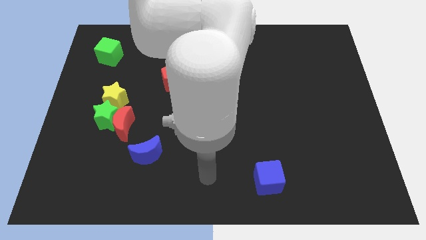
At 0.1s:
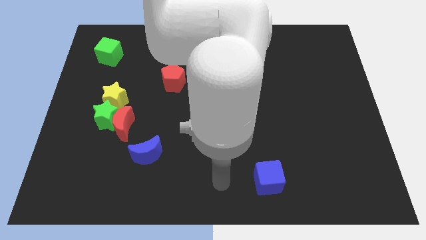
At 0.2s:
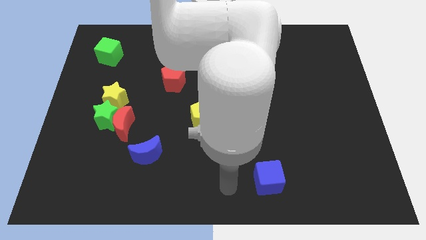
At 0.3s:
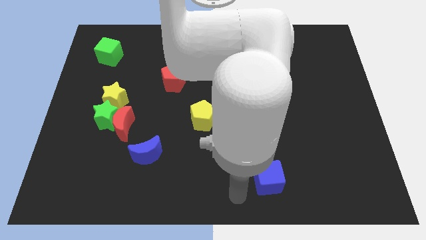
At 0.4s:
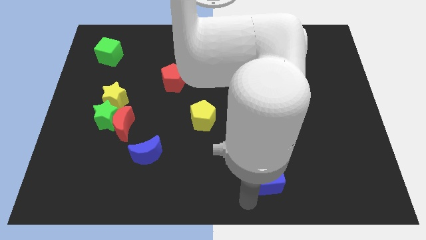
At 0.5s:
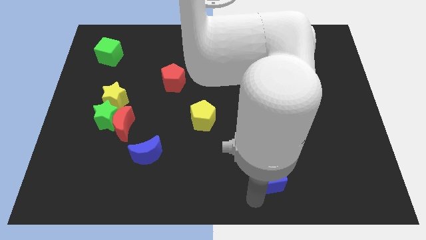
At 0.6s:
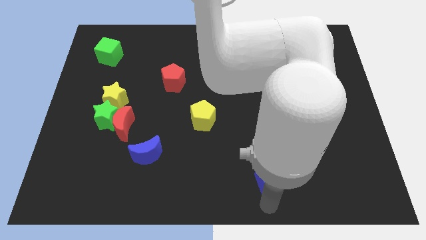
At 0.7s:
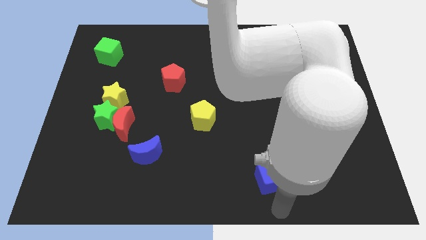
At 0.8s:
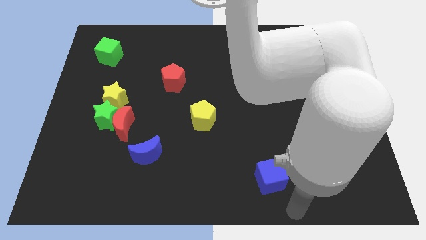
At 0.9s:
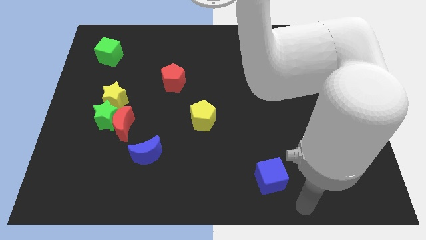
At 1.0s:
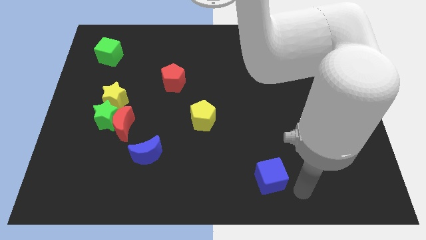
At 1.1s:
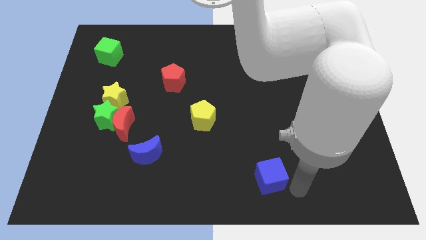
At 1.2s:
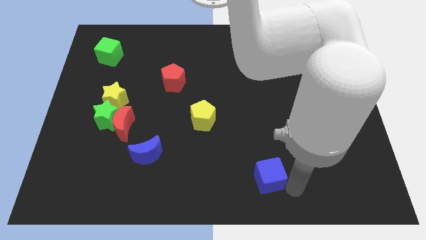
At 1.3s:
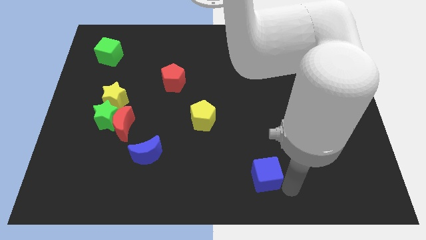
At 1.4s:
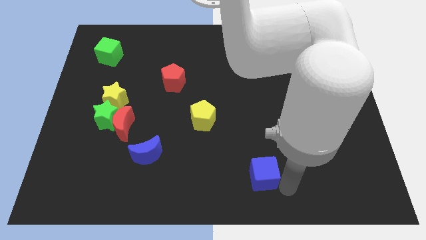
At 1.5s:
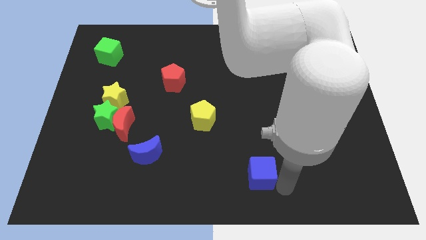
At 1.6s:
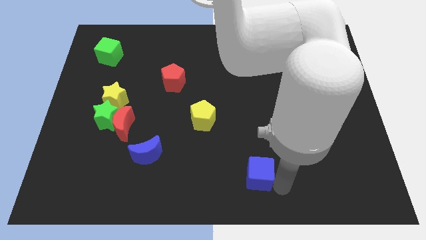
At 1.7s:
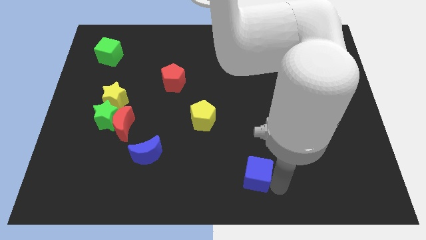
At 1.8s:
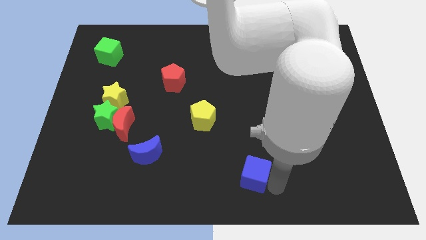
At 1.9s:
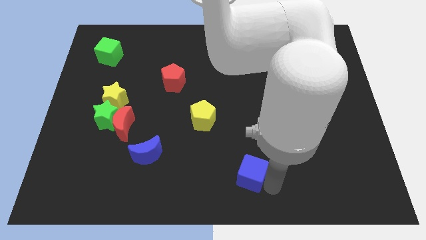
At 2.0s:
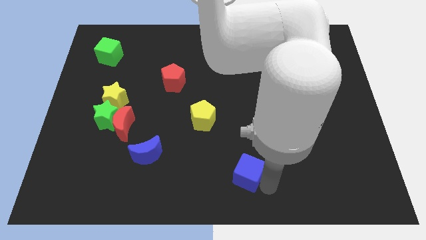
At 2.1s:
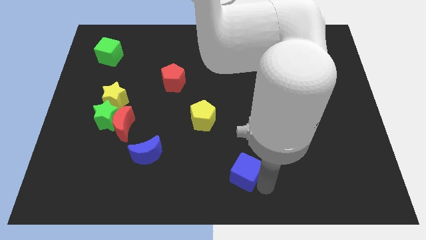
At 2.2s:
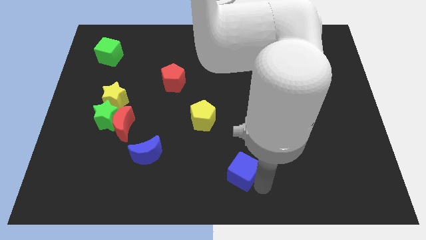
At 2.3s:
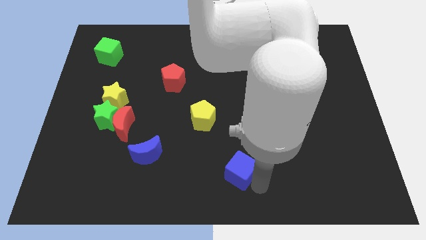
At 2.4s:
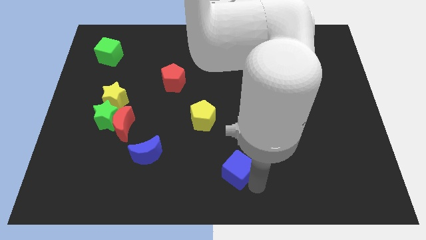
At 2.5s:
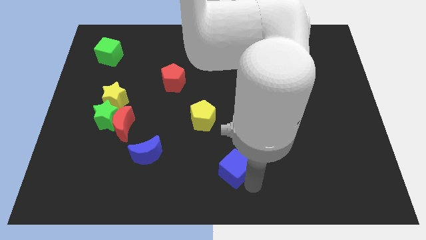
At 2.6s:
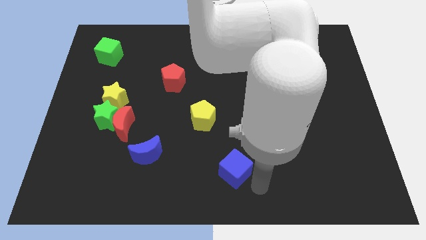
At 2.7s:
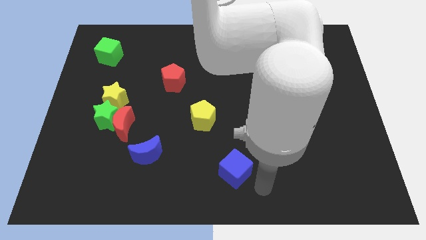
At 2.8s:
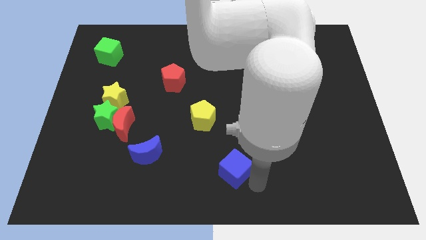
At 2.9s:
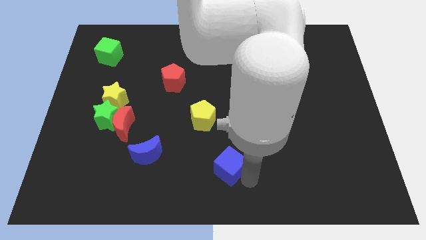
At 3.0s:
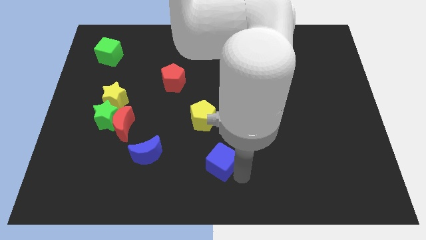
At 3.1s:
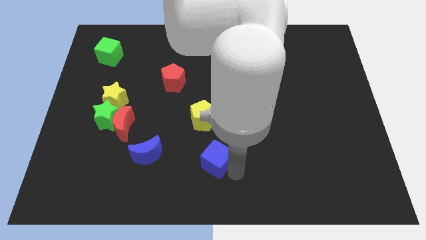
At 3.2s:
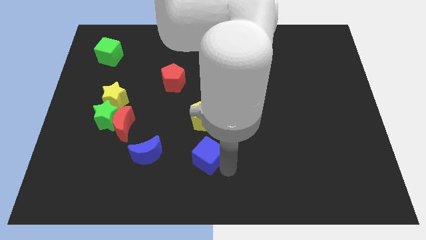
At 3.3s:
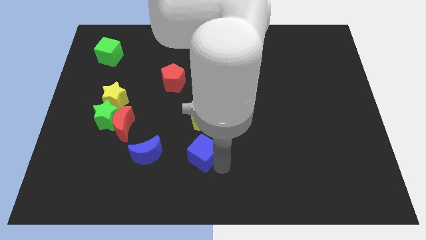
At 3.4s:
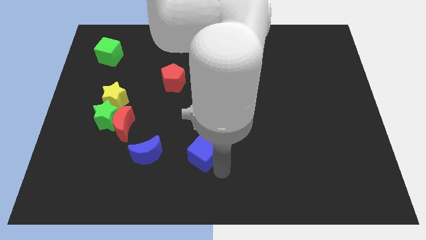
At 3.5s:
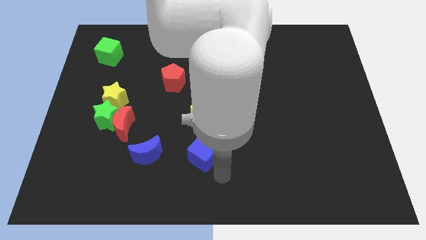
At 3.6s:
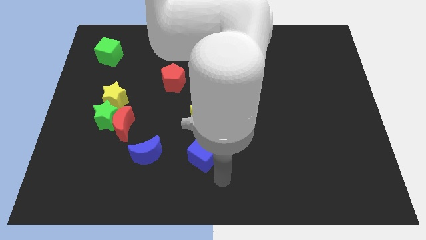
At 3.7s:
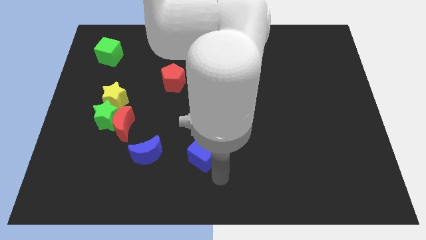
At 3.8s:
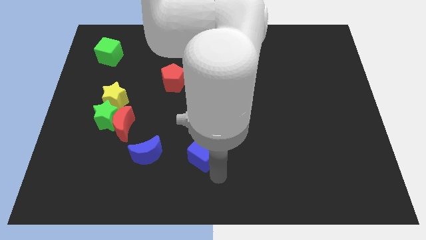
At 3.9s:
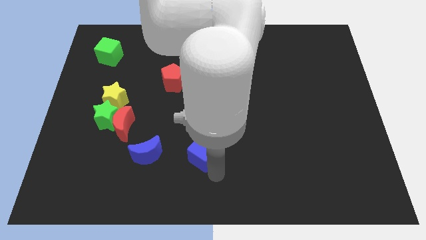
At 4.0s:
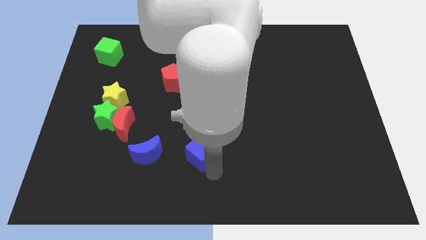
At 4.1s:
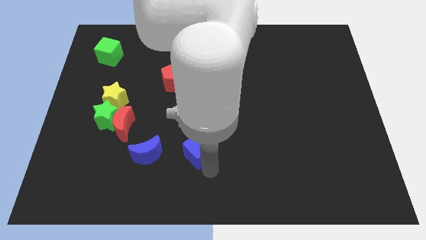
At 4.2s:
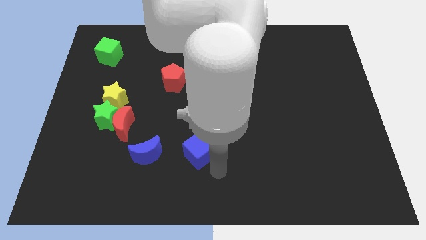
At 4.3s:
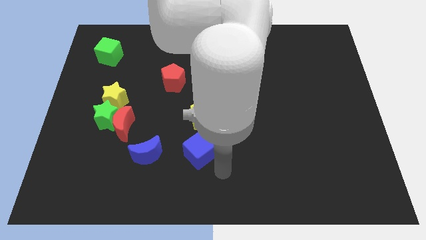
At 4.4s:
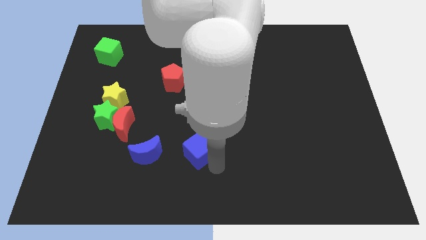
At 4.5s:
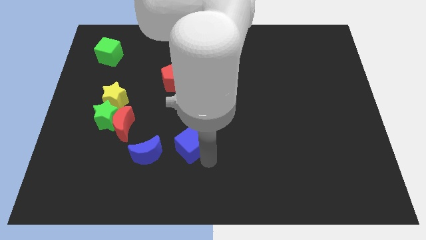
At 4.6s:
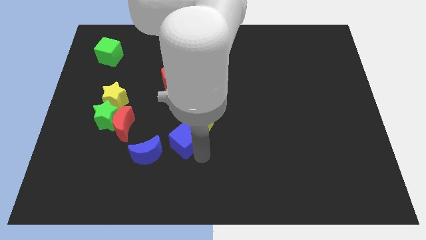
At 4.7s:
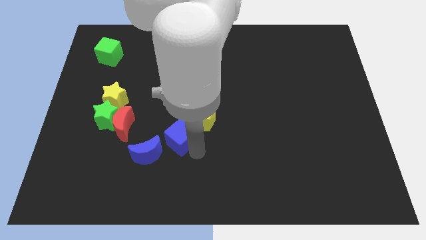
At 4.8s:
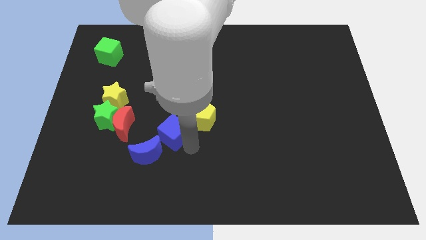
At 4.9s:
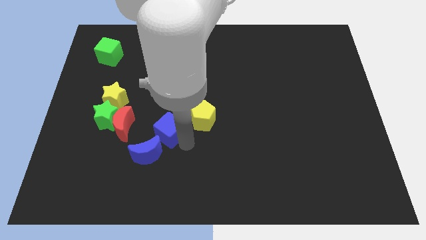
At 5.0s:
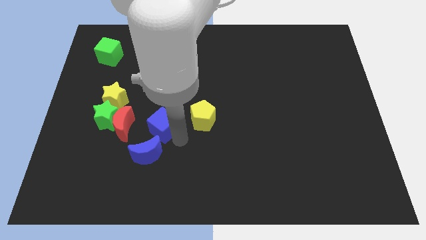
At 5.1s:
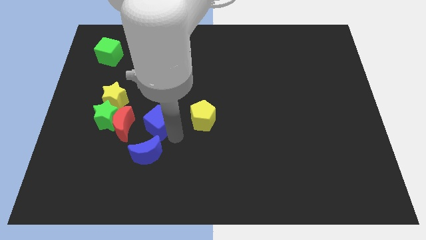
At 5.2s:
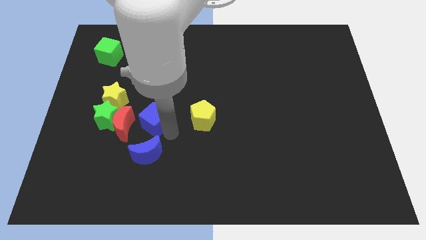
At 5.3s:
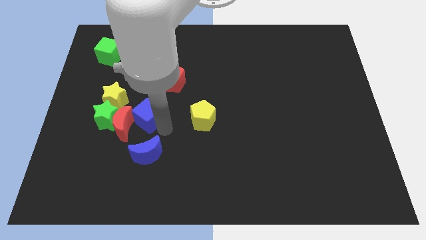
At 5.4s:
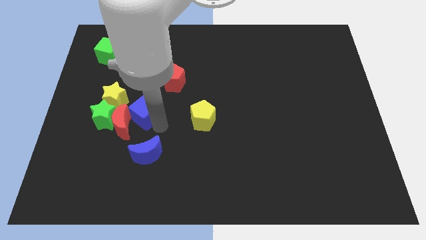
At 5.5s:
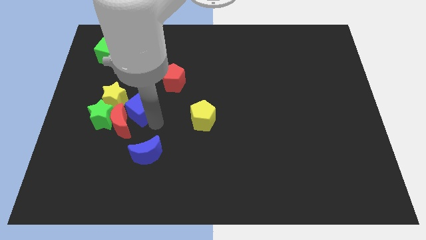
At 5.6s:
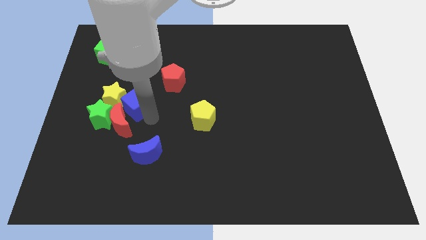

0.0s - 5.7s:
slide the blue cube next to the yellow star

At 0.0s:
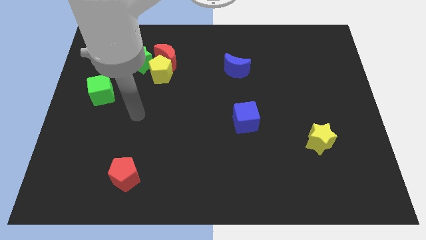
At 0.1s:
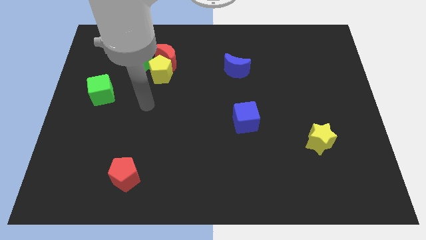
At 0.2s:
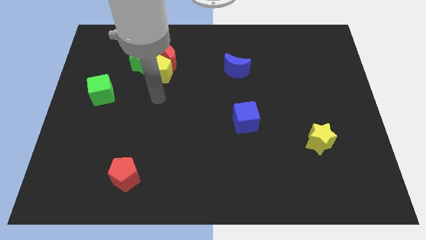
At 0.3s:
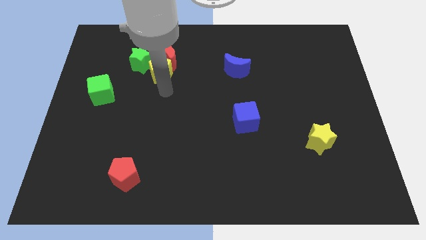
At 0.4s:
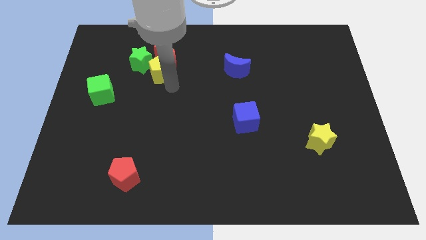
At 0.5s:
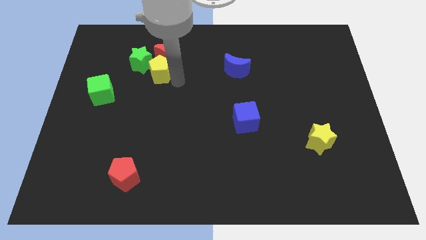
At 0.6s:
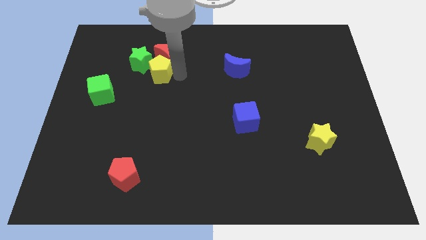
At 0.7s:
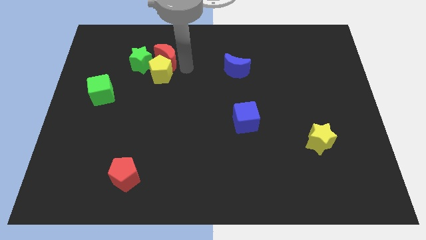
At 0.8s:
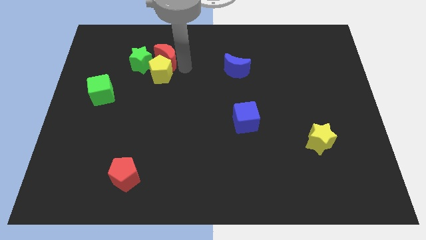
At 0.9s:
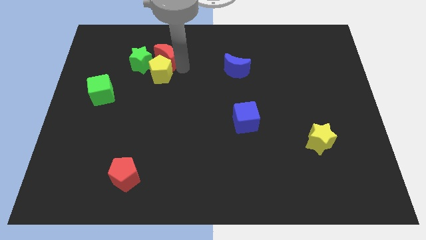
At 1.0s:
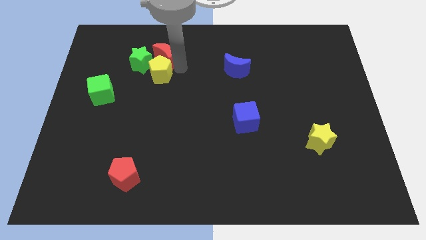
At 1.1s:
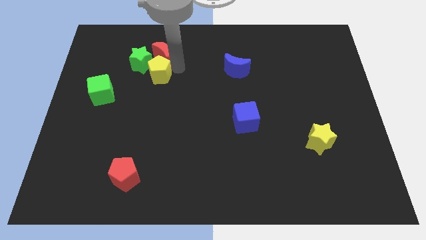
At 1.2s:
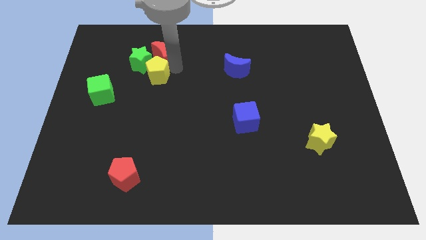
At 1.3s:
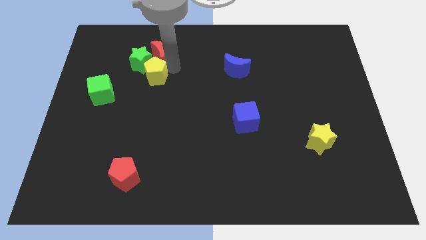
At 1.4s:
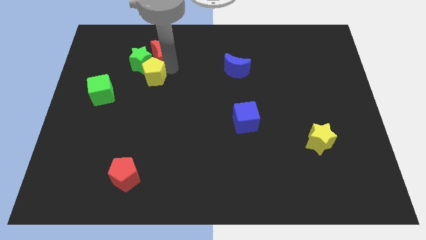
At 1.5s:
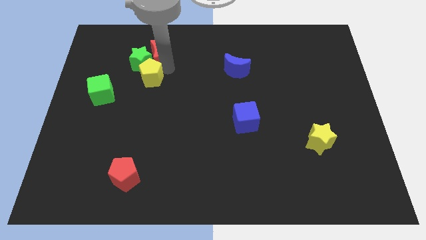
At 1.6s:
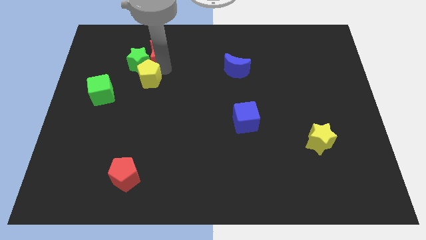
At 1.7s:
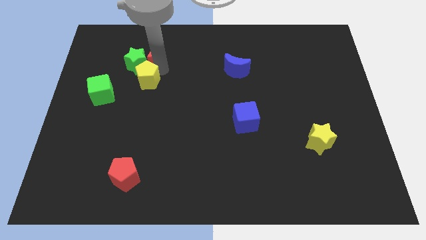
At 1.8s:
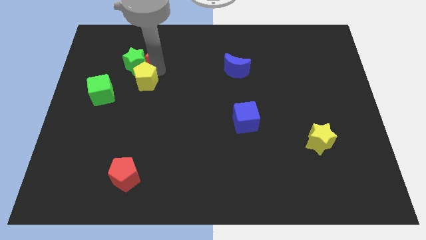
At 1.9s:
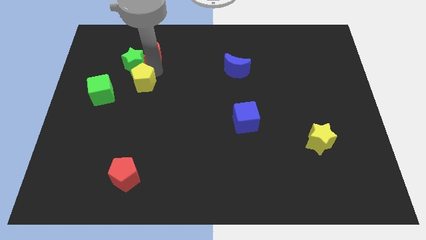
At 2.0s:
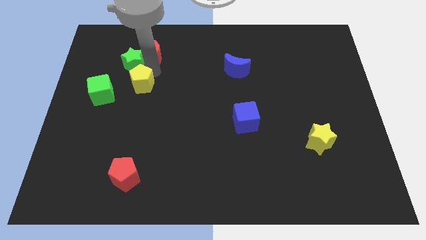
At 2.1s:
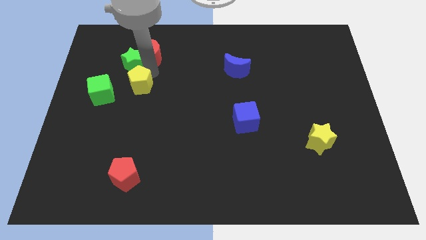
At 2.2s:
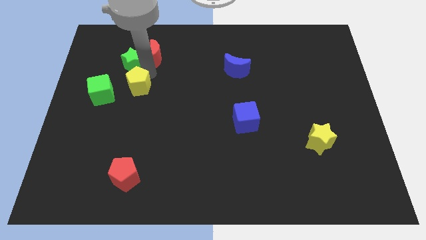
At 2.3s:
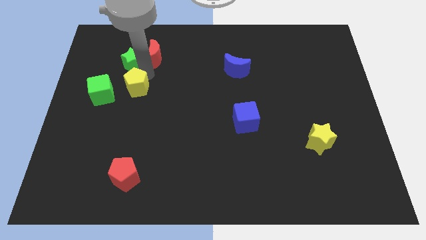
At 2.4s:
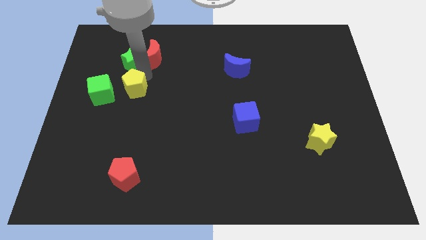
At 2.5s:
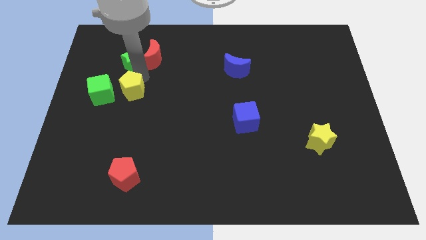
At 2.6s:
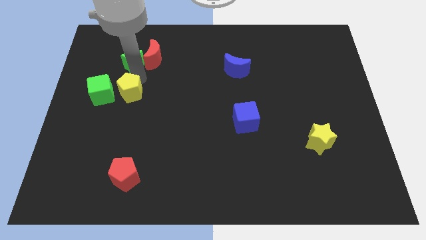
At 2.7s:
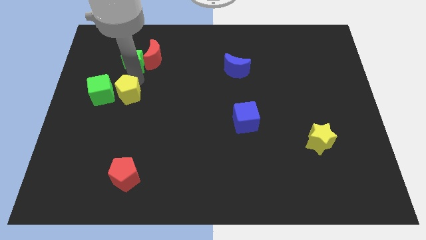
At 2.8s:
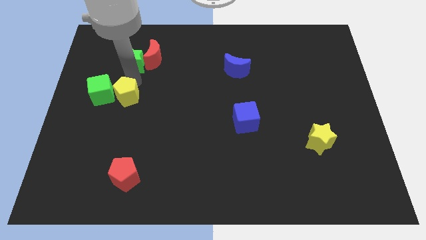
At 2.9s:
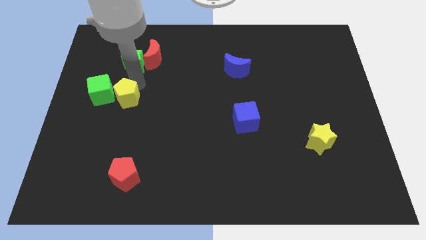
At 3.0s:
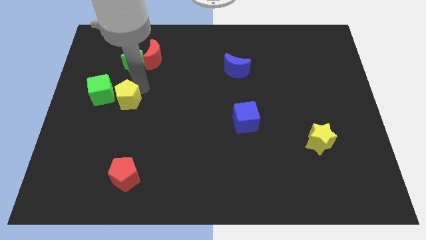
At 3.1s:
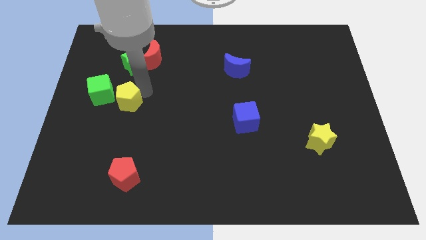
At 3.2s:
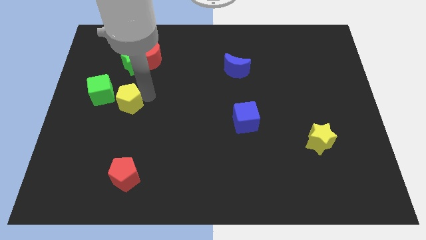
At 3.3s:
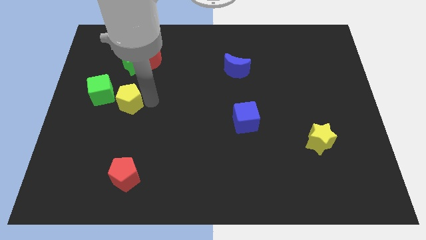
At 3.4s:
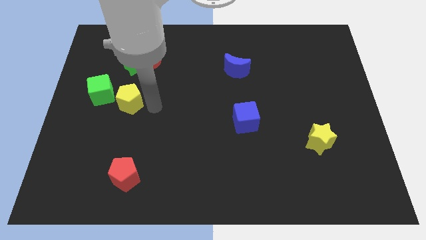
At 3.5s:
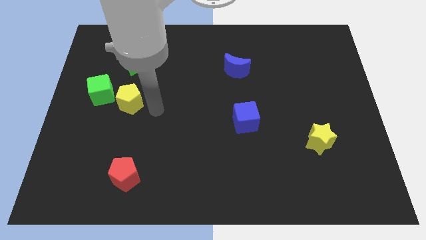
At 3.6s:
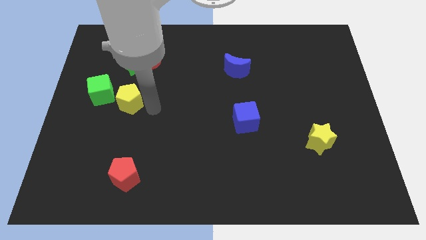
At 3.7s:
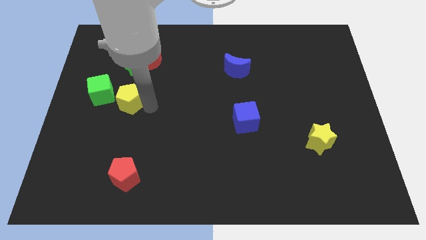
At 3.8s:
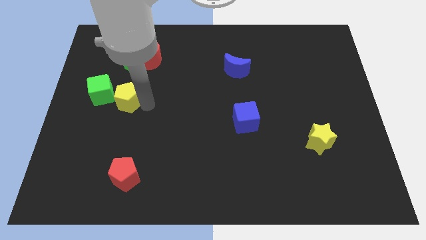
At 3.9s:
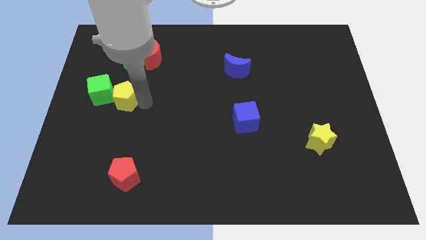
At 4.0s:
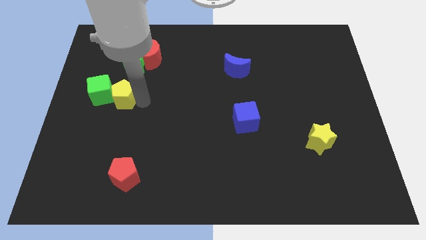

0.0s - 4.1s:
push the yellow pentagon towards the green cube
